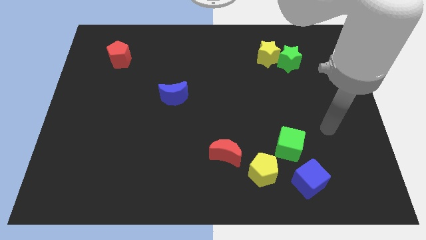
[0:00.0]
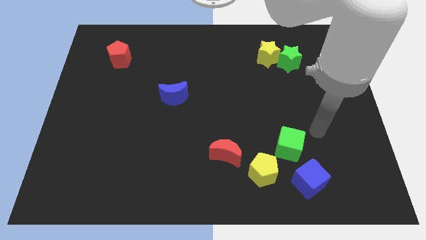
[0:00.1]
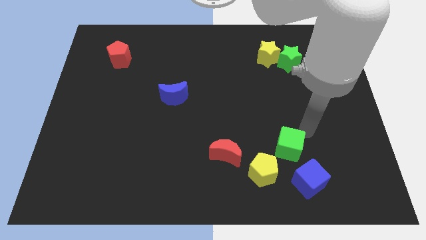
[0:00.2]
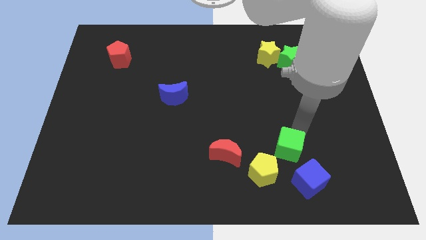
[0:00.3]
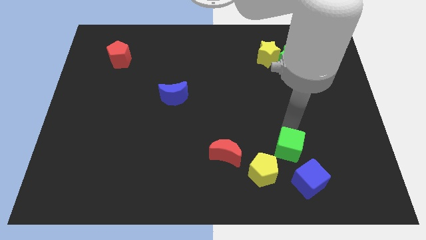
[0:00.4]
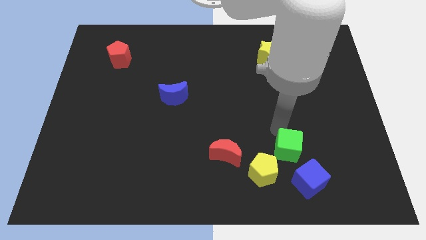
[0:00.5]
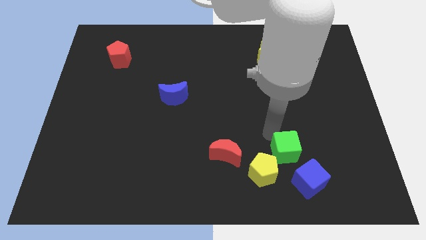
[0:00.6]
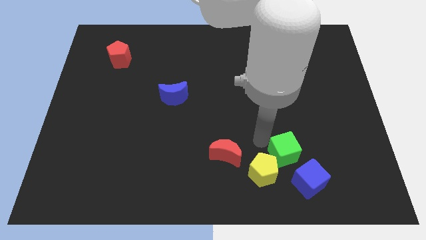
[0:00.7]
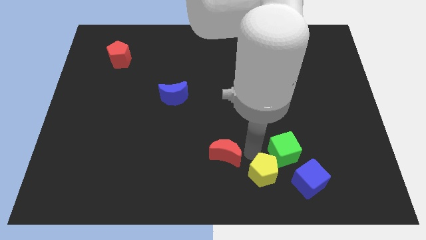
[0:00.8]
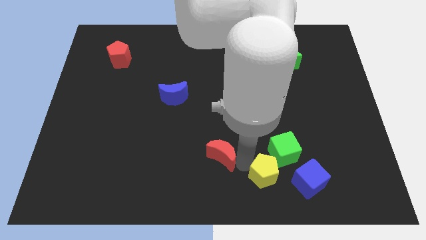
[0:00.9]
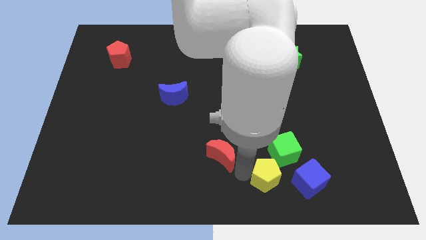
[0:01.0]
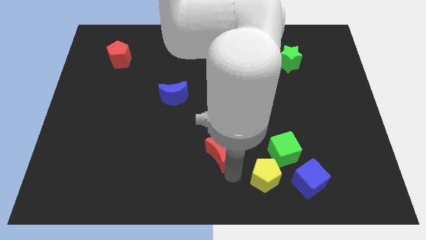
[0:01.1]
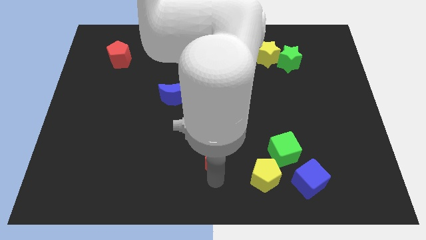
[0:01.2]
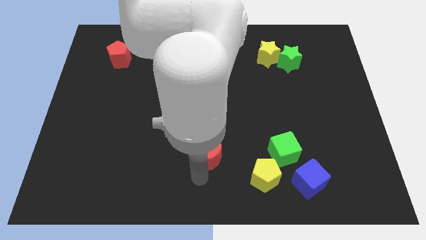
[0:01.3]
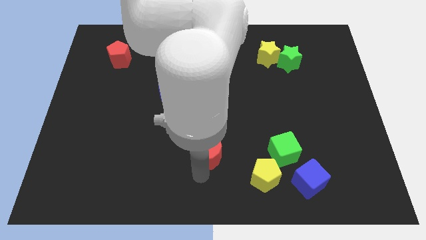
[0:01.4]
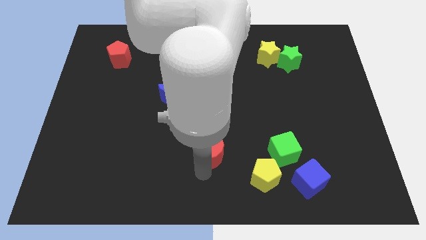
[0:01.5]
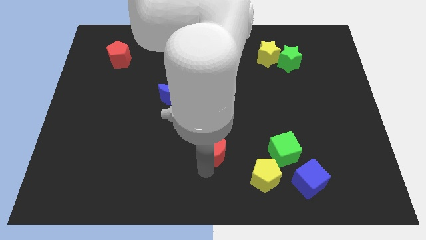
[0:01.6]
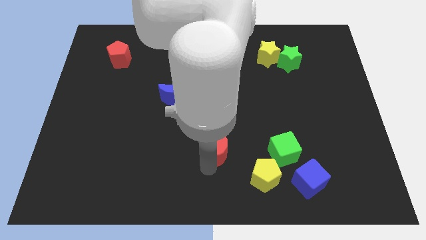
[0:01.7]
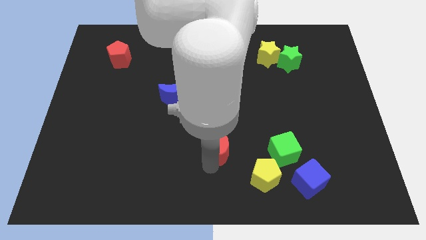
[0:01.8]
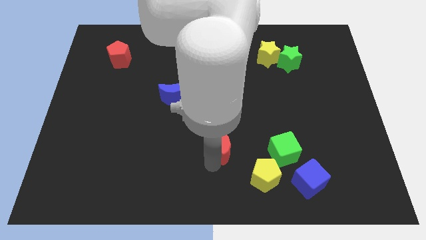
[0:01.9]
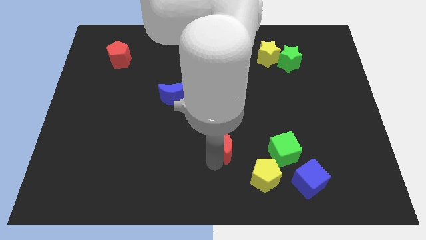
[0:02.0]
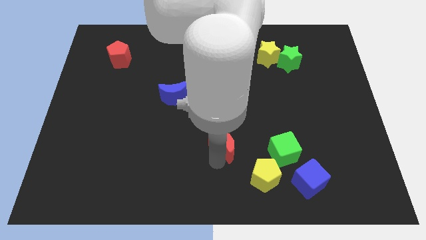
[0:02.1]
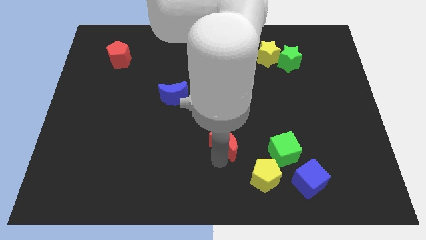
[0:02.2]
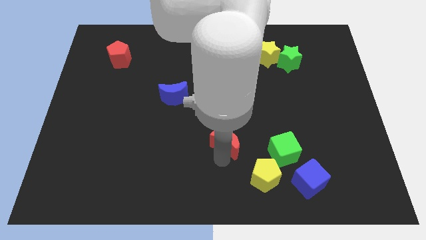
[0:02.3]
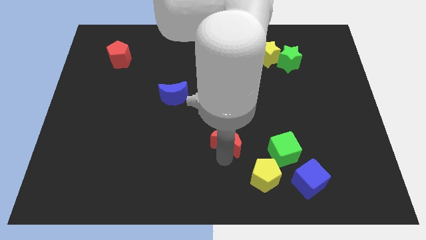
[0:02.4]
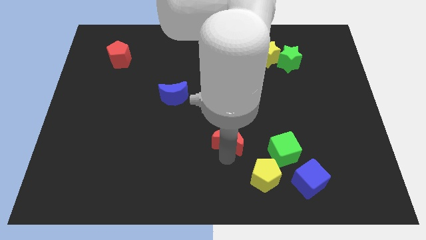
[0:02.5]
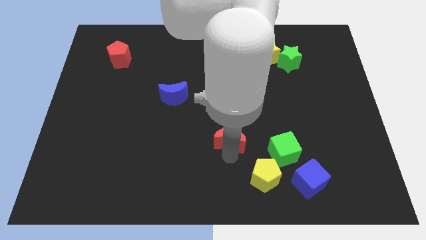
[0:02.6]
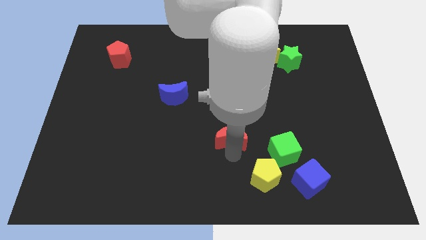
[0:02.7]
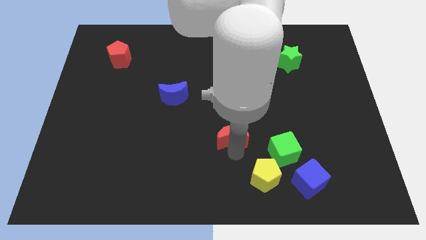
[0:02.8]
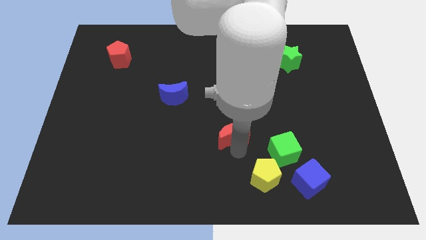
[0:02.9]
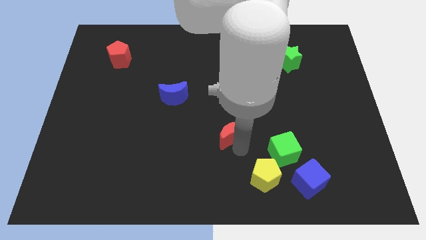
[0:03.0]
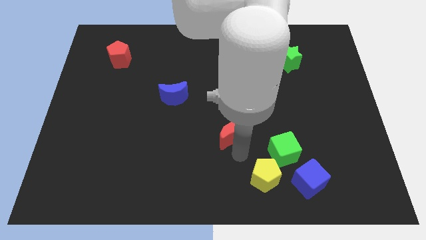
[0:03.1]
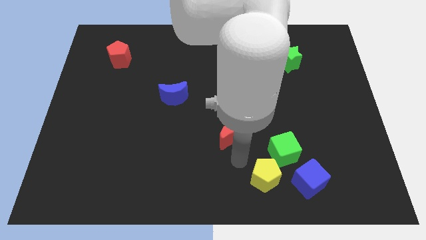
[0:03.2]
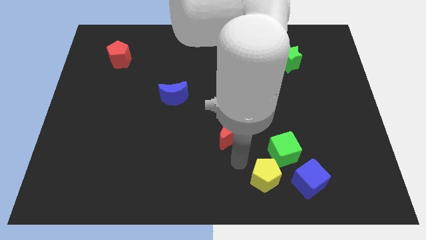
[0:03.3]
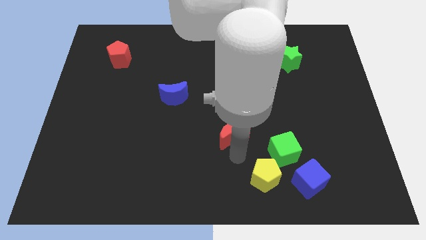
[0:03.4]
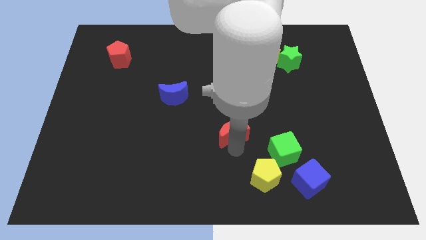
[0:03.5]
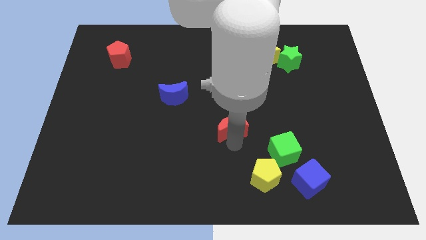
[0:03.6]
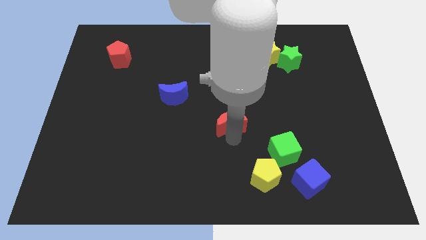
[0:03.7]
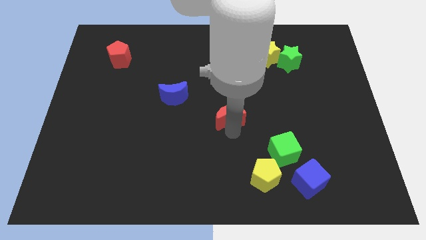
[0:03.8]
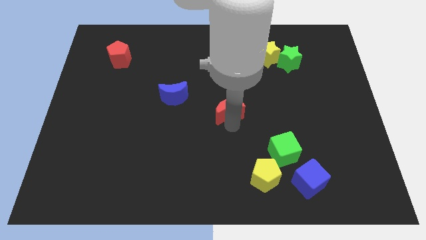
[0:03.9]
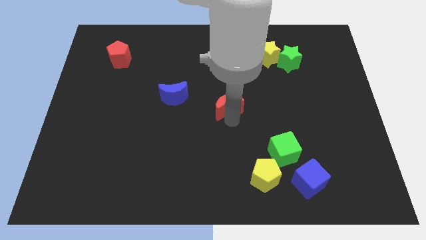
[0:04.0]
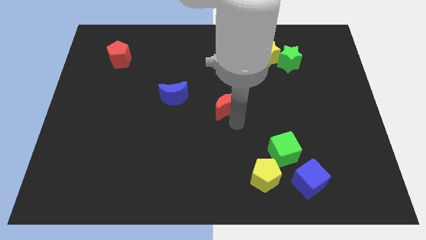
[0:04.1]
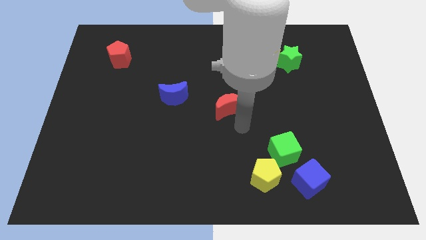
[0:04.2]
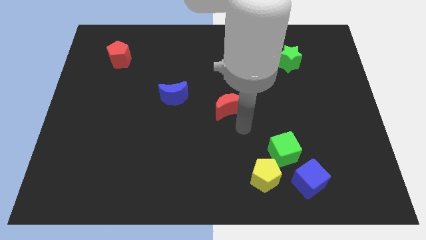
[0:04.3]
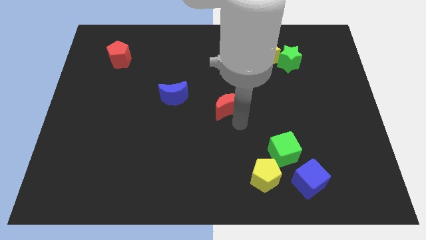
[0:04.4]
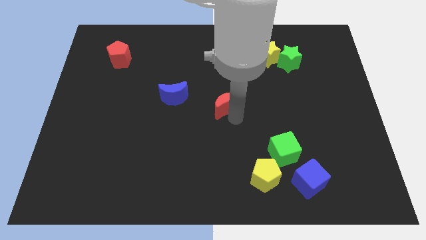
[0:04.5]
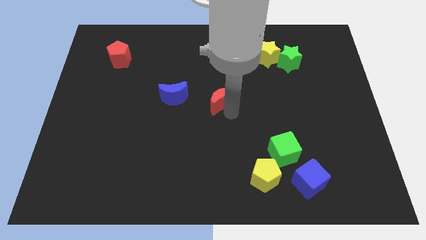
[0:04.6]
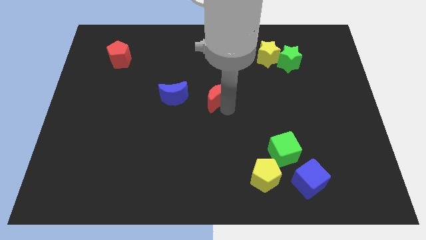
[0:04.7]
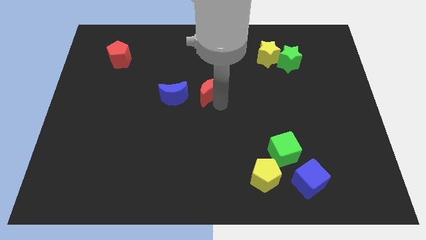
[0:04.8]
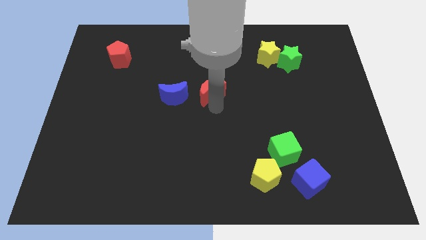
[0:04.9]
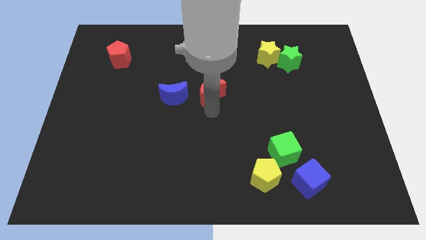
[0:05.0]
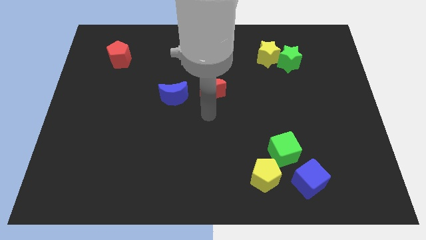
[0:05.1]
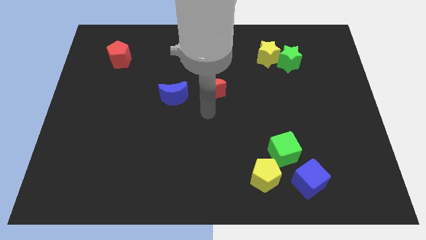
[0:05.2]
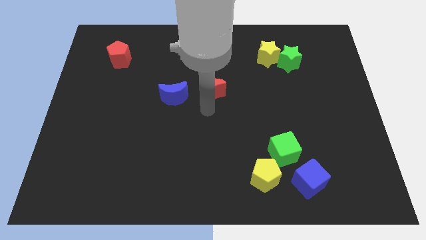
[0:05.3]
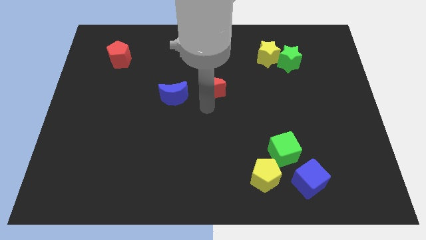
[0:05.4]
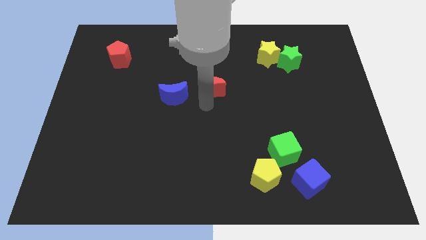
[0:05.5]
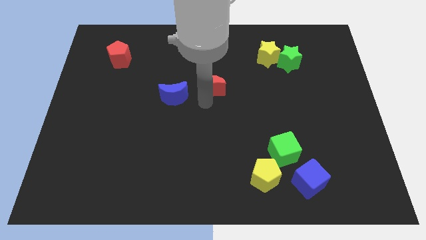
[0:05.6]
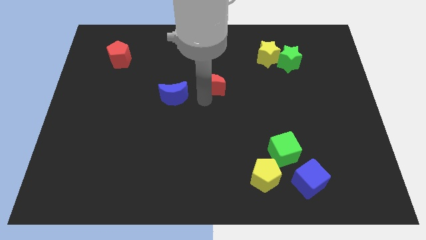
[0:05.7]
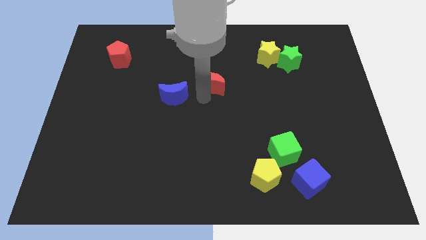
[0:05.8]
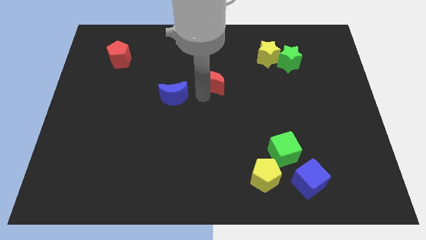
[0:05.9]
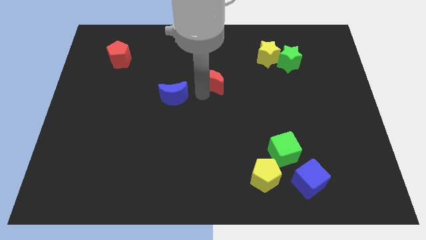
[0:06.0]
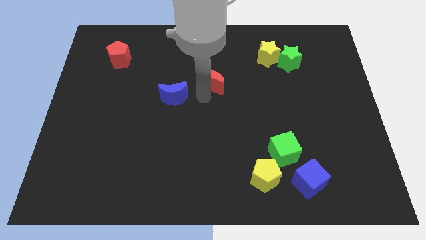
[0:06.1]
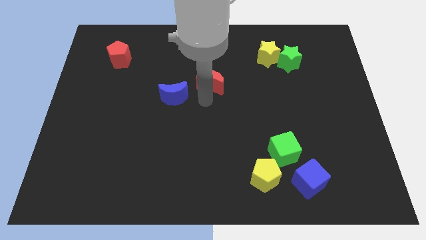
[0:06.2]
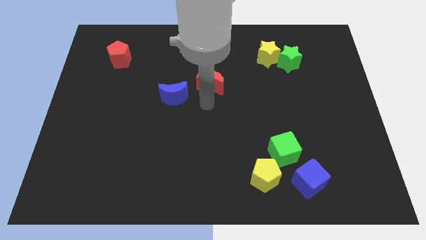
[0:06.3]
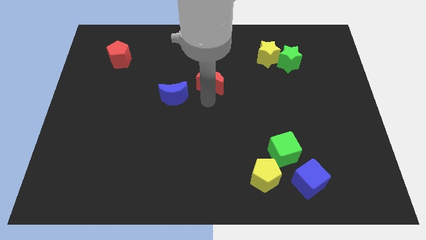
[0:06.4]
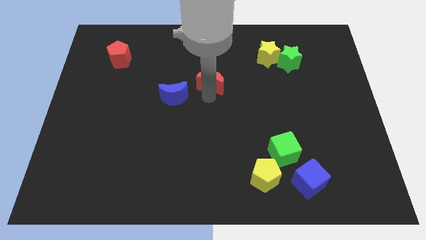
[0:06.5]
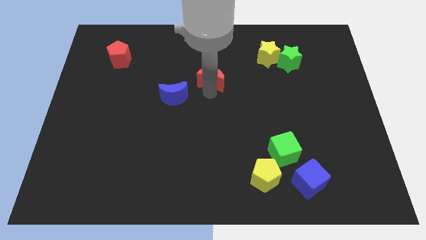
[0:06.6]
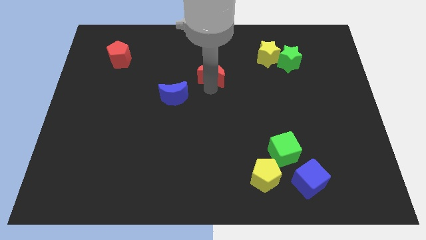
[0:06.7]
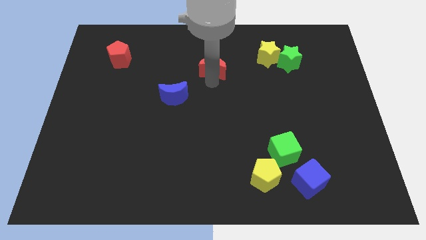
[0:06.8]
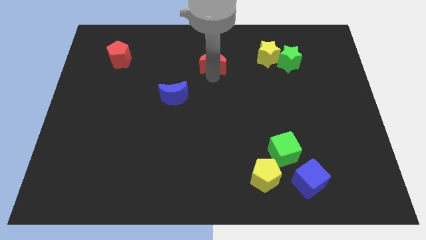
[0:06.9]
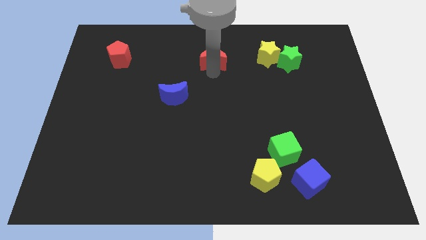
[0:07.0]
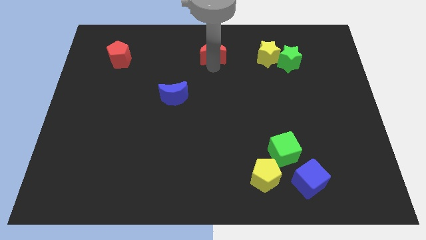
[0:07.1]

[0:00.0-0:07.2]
put the red moon to the towards your base
